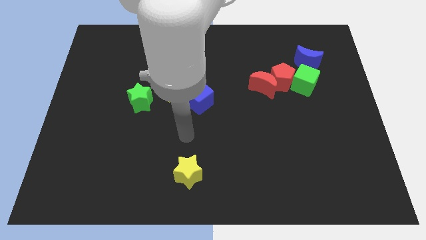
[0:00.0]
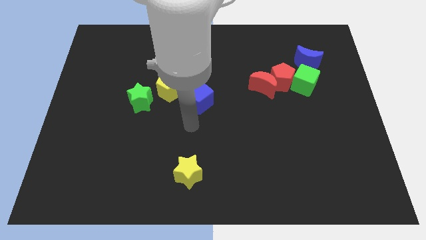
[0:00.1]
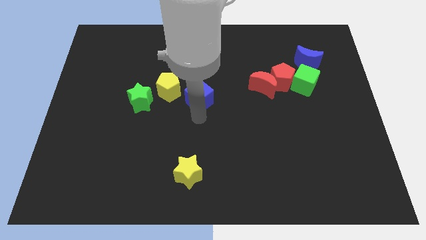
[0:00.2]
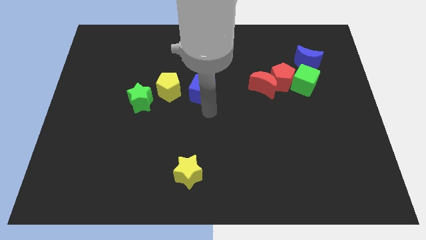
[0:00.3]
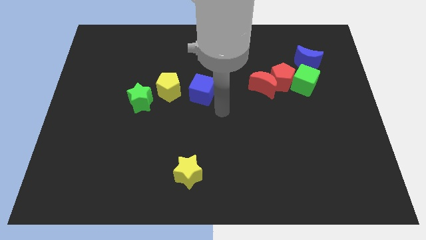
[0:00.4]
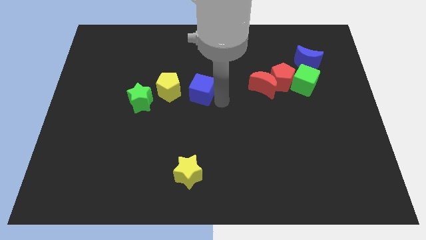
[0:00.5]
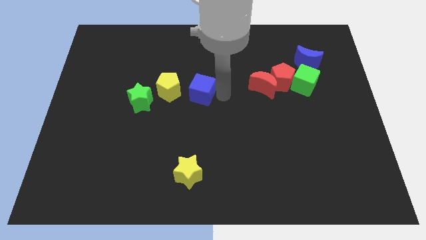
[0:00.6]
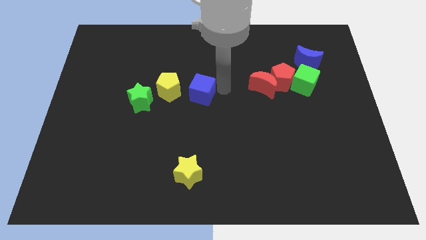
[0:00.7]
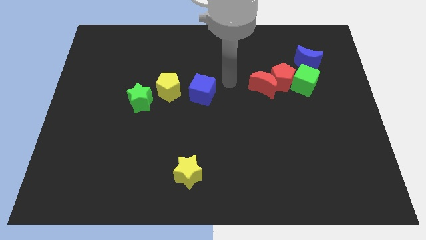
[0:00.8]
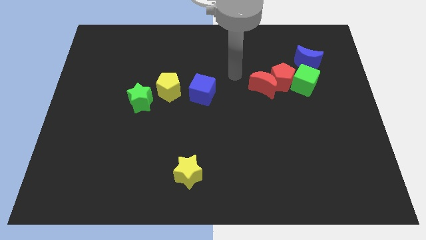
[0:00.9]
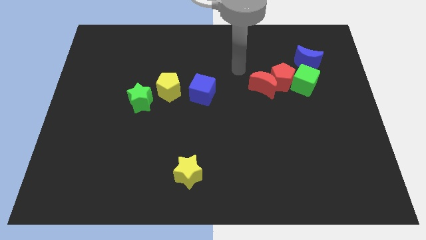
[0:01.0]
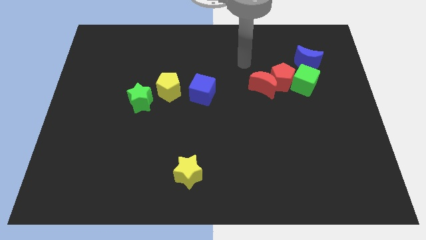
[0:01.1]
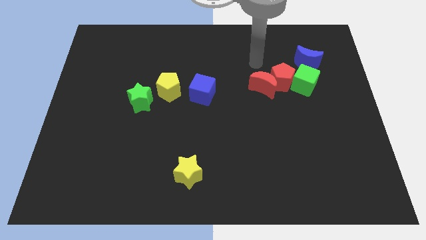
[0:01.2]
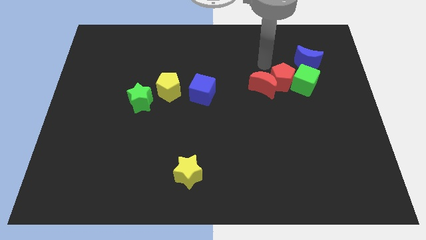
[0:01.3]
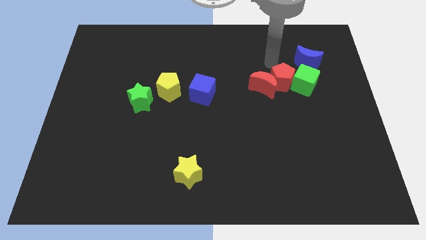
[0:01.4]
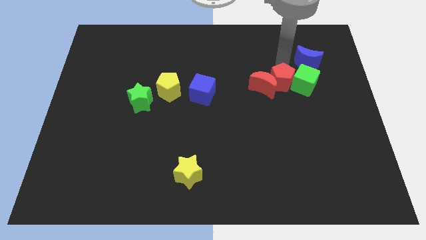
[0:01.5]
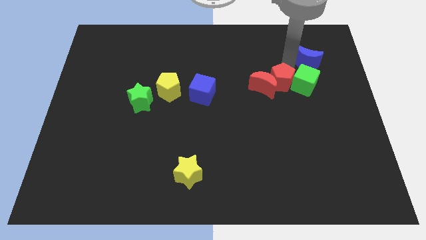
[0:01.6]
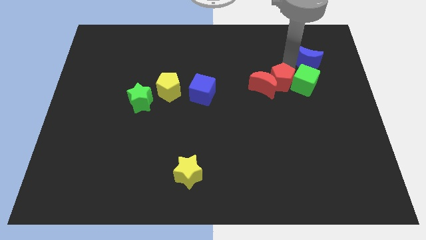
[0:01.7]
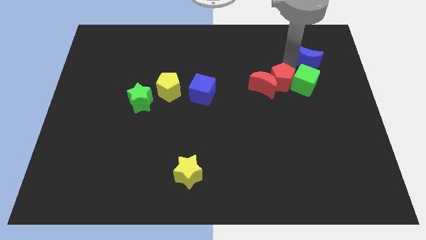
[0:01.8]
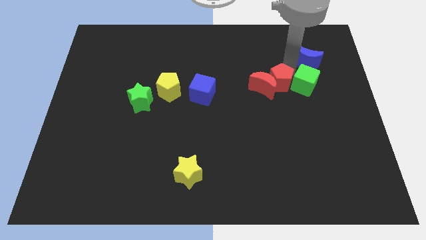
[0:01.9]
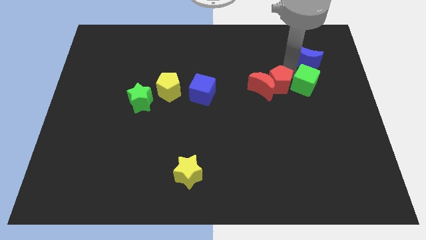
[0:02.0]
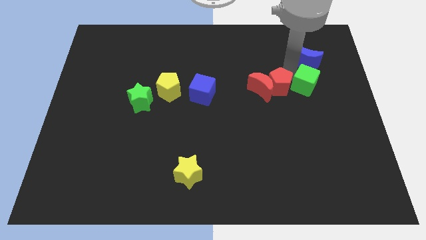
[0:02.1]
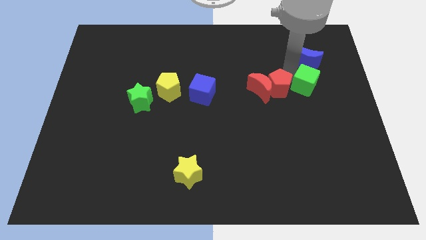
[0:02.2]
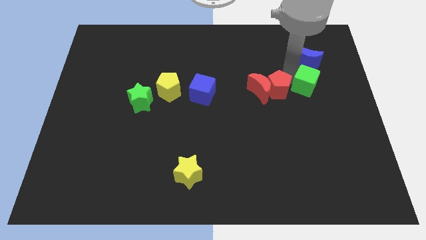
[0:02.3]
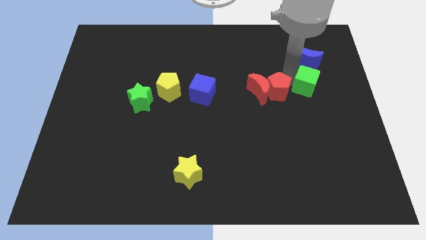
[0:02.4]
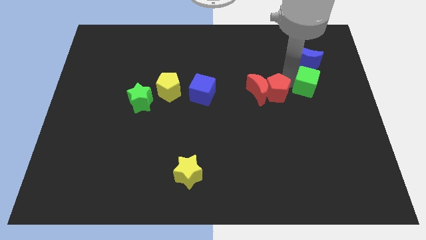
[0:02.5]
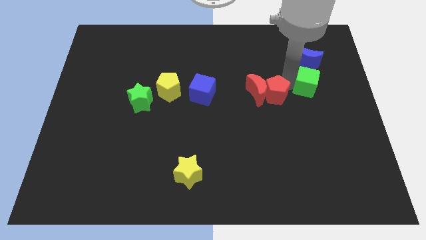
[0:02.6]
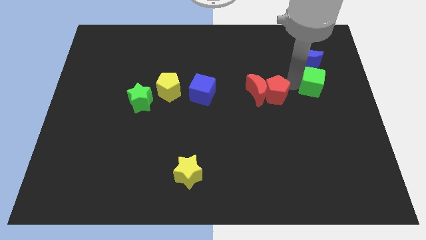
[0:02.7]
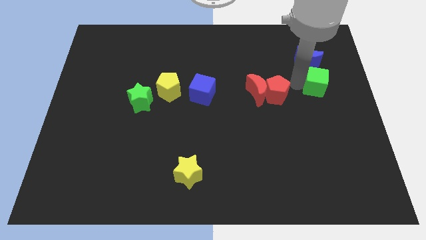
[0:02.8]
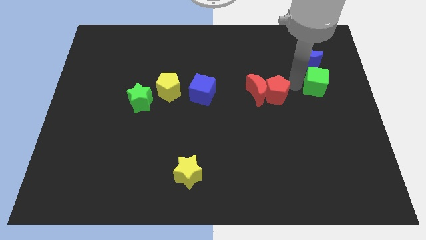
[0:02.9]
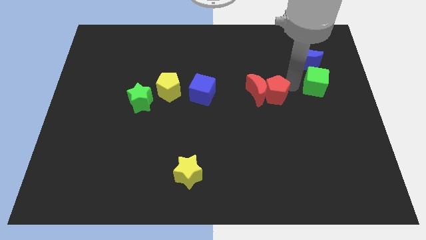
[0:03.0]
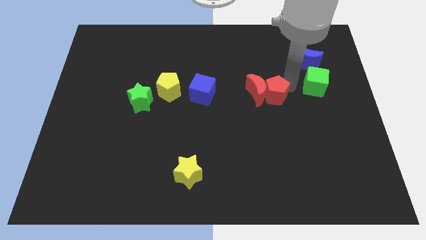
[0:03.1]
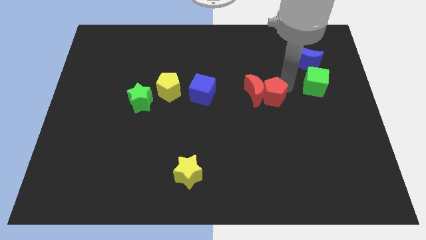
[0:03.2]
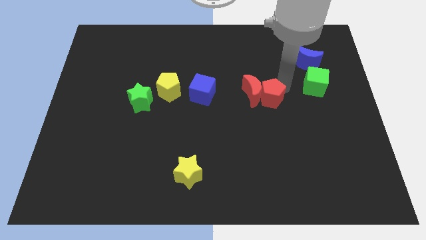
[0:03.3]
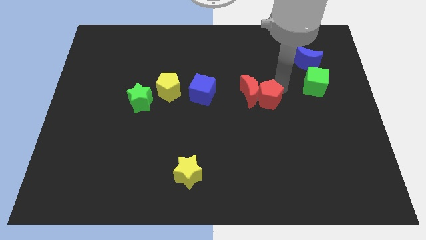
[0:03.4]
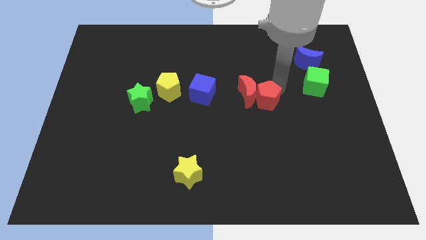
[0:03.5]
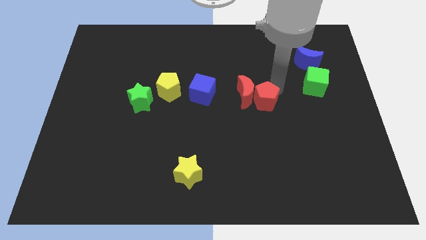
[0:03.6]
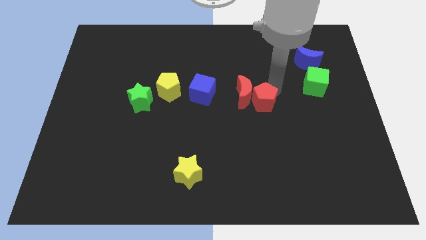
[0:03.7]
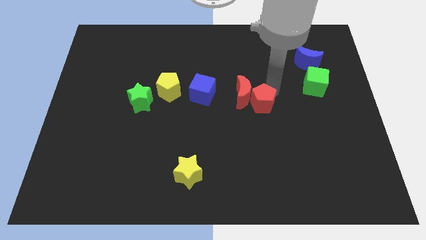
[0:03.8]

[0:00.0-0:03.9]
separate the red pentagon from the group

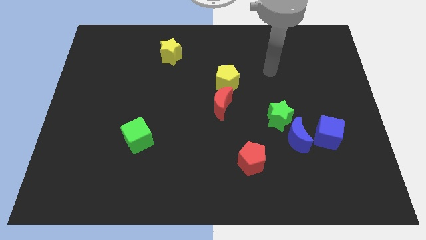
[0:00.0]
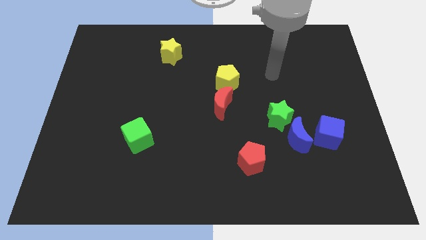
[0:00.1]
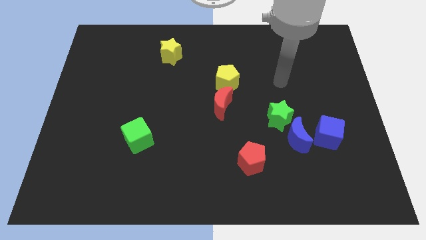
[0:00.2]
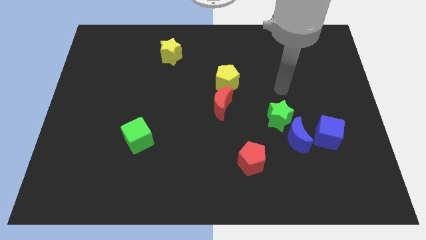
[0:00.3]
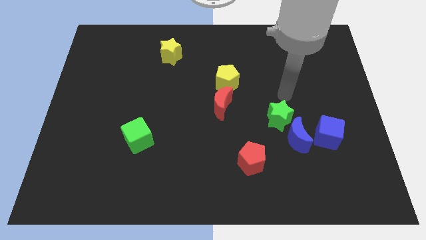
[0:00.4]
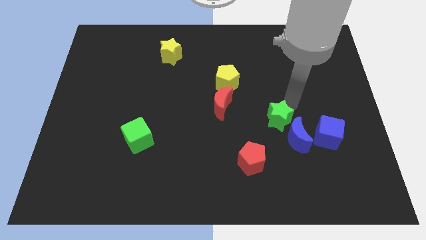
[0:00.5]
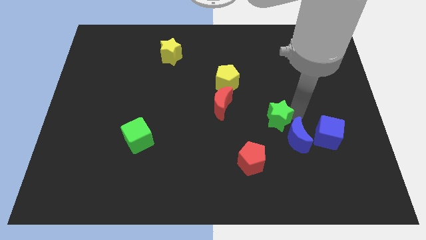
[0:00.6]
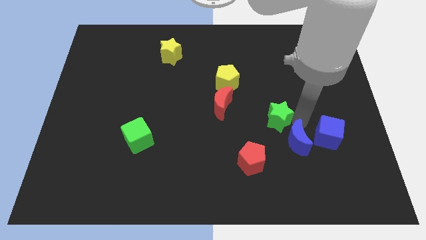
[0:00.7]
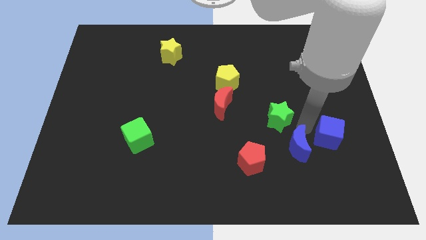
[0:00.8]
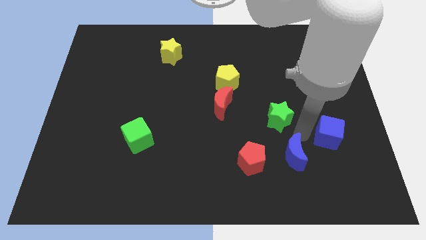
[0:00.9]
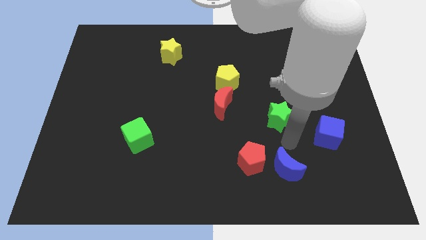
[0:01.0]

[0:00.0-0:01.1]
separate the green star from the blue moon

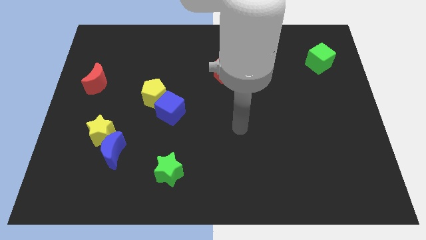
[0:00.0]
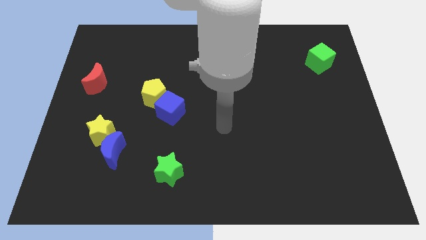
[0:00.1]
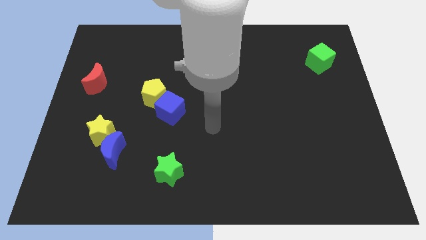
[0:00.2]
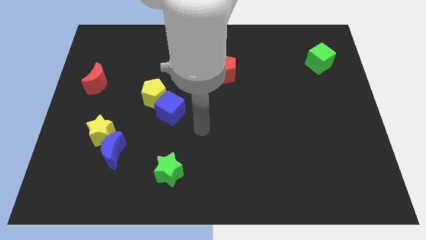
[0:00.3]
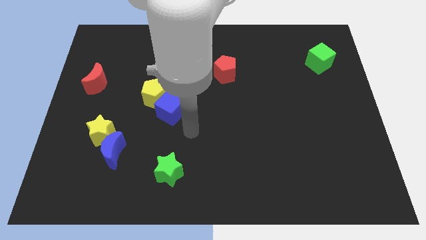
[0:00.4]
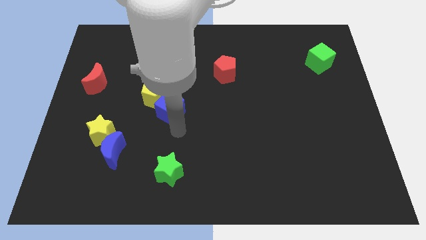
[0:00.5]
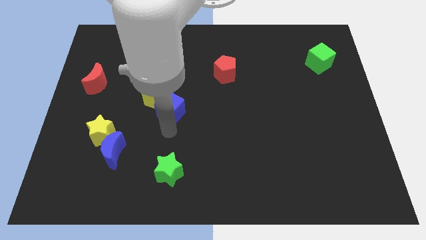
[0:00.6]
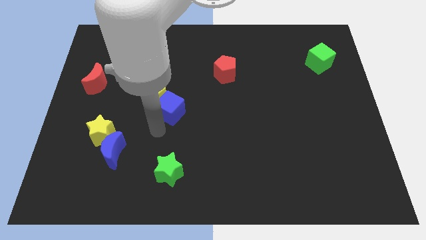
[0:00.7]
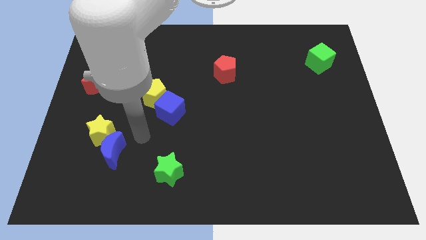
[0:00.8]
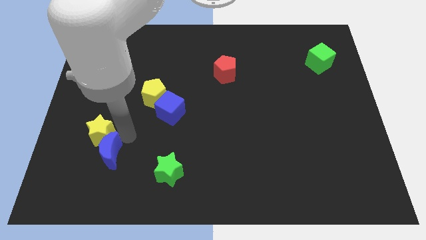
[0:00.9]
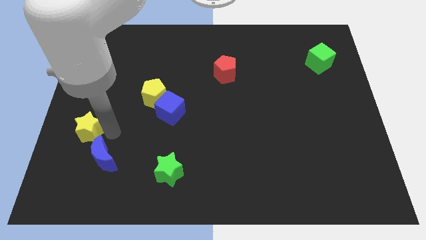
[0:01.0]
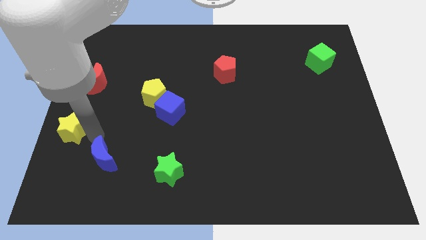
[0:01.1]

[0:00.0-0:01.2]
move the blue moon away from the yellow star

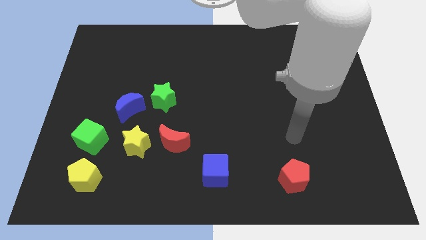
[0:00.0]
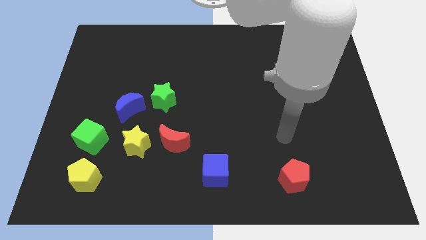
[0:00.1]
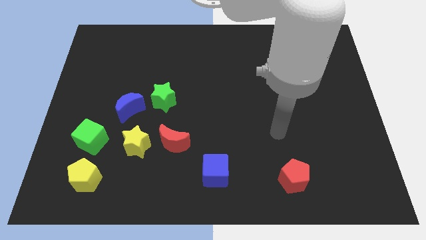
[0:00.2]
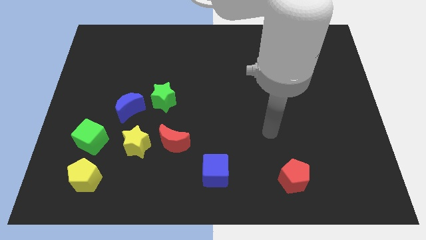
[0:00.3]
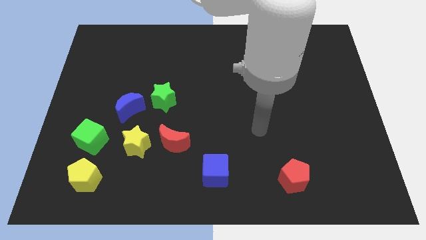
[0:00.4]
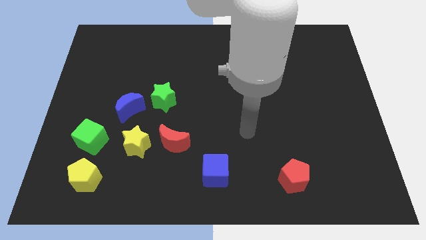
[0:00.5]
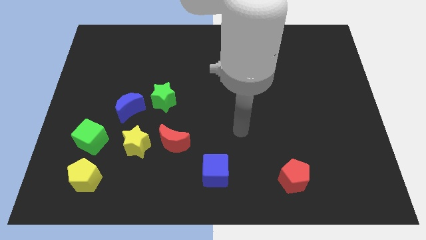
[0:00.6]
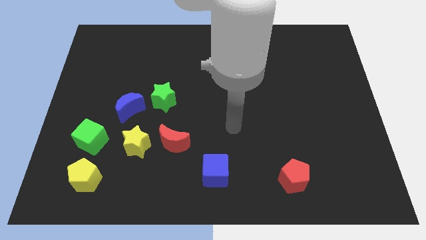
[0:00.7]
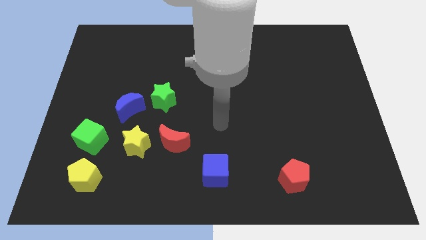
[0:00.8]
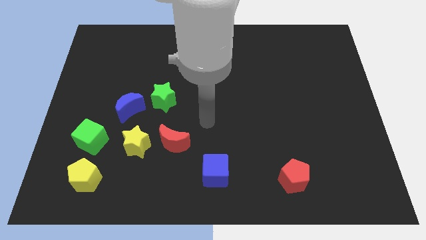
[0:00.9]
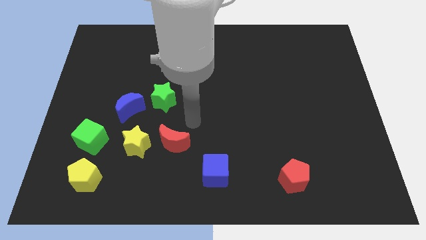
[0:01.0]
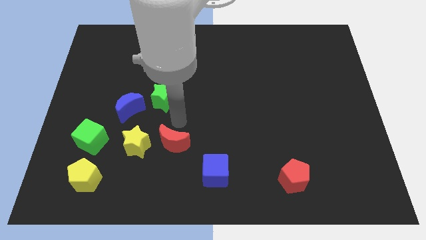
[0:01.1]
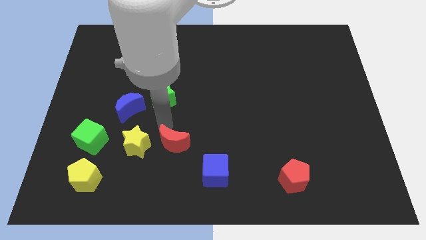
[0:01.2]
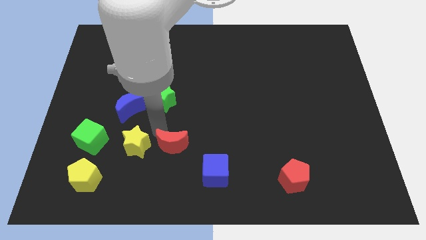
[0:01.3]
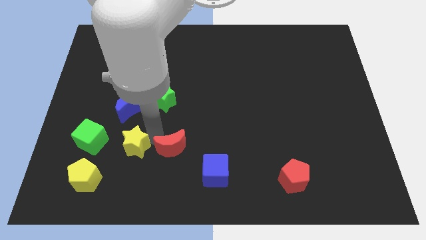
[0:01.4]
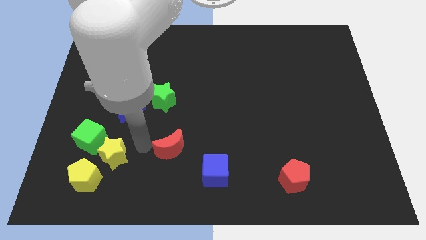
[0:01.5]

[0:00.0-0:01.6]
pull the red moon apart from the yellow star

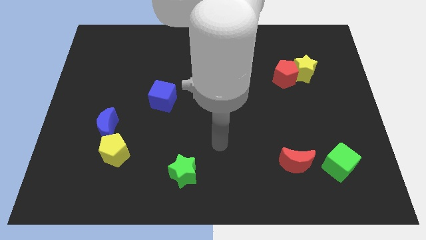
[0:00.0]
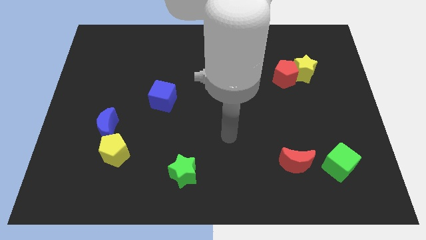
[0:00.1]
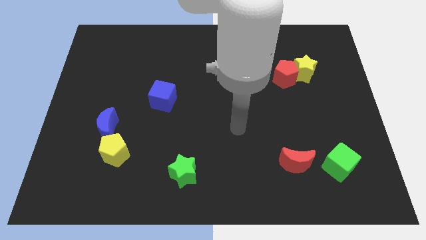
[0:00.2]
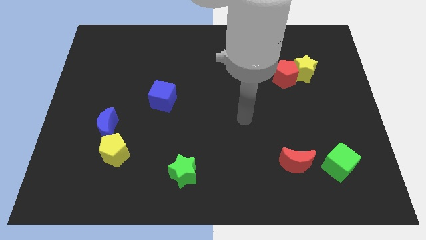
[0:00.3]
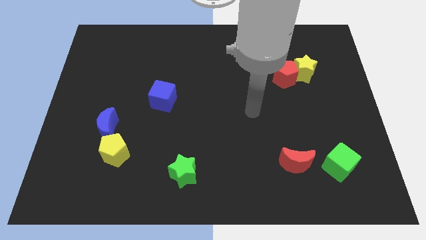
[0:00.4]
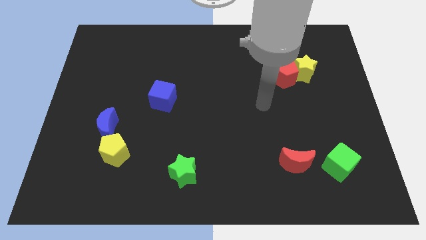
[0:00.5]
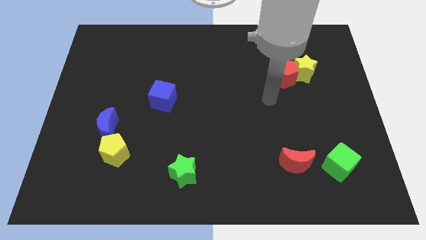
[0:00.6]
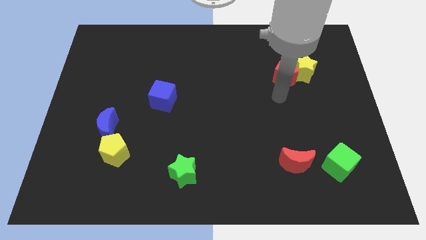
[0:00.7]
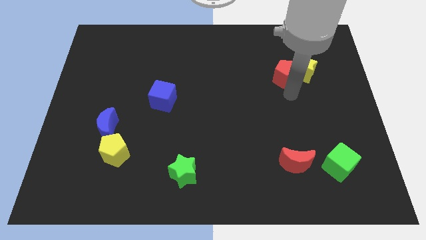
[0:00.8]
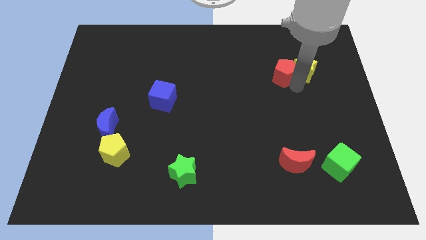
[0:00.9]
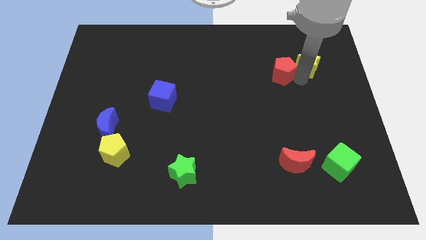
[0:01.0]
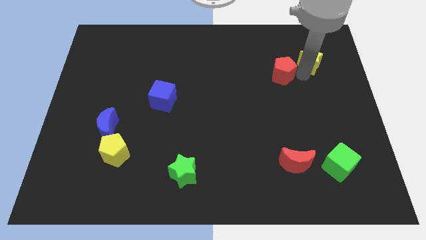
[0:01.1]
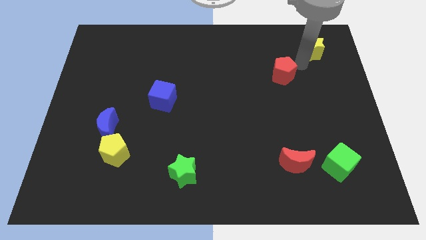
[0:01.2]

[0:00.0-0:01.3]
separate the red pentagon from the yellow star

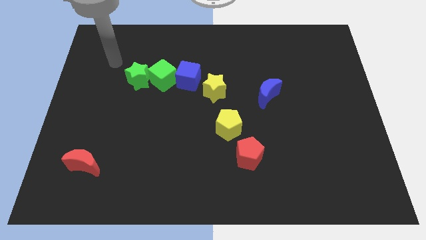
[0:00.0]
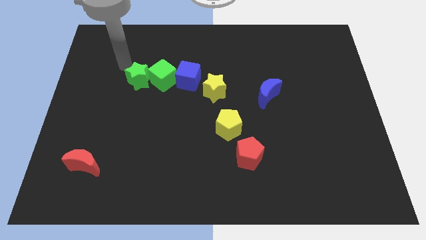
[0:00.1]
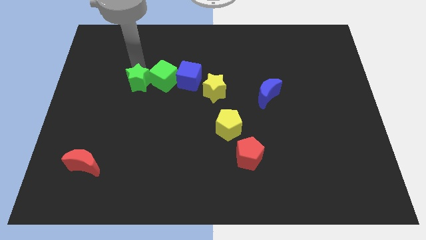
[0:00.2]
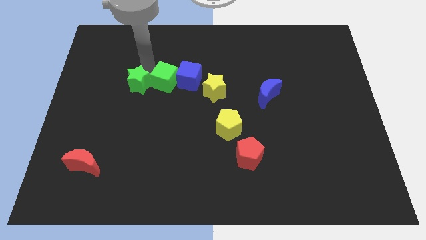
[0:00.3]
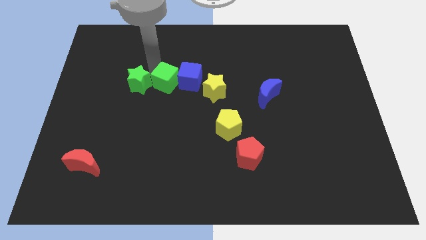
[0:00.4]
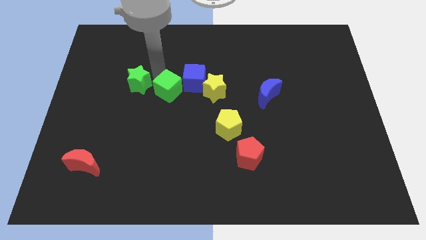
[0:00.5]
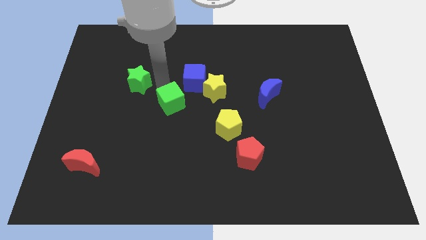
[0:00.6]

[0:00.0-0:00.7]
separate the green star from the green cube
